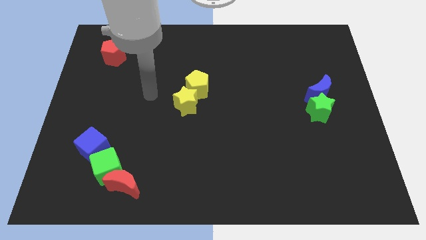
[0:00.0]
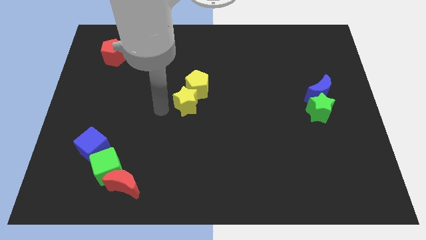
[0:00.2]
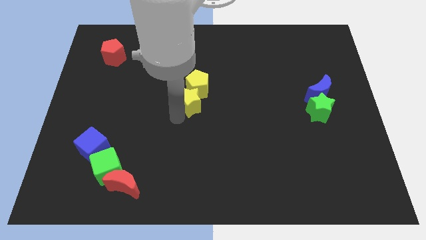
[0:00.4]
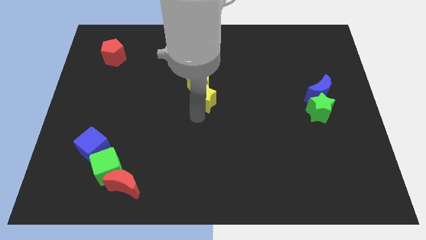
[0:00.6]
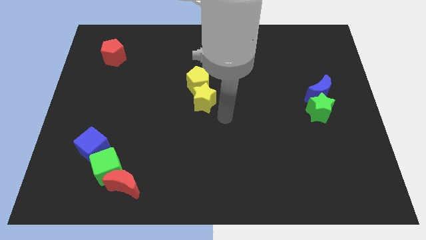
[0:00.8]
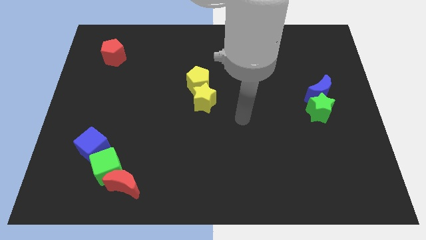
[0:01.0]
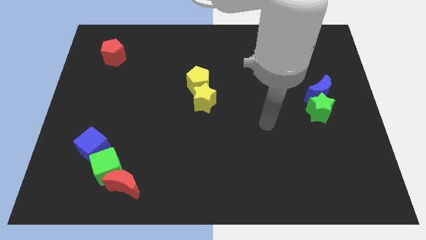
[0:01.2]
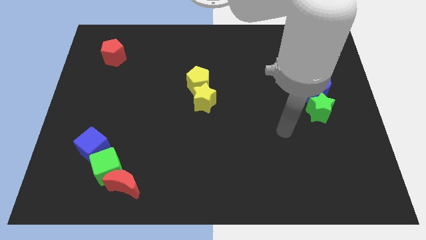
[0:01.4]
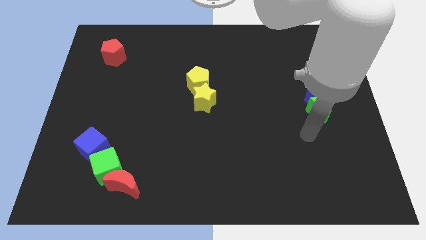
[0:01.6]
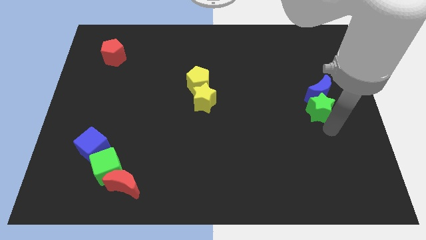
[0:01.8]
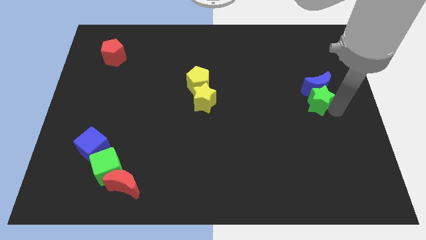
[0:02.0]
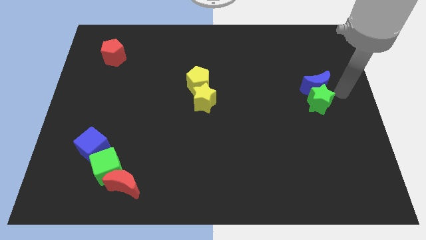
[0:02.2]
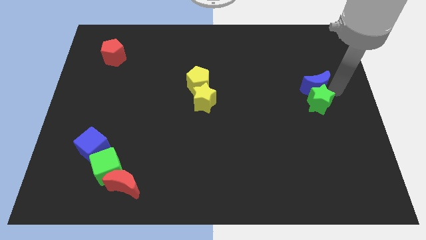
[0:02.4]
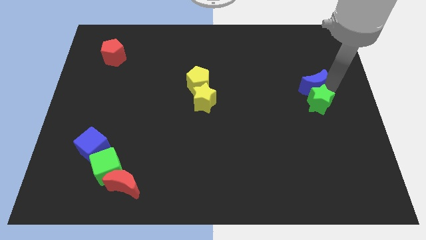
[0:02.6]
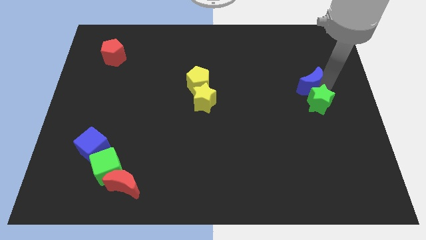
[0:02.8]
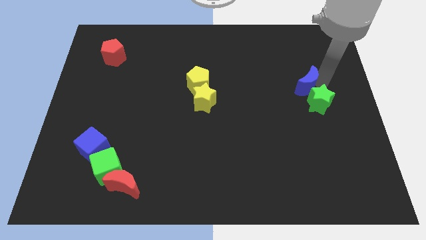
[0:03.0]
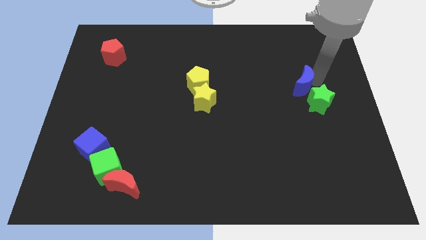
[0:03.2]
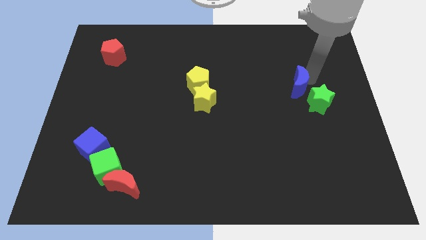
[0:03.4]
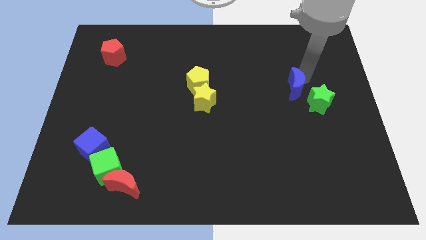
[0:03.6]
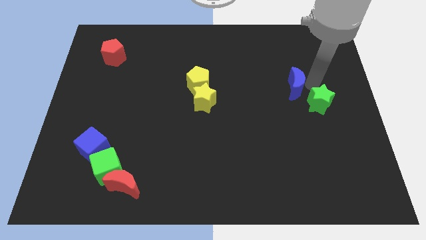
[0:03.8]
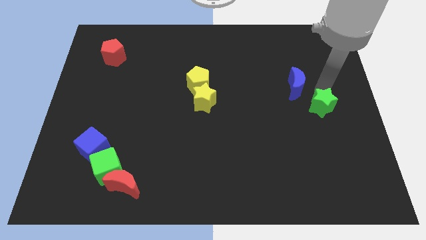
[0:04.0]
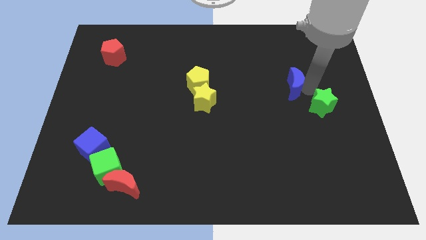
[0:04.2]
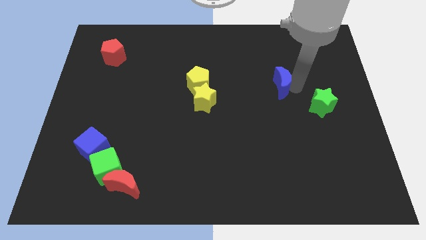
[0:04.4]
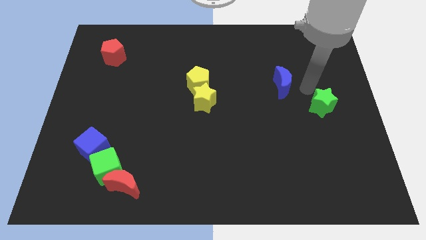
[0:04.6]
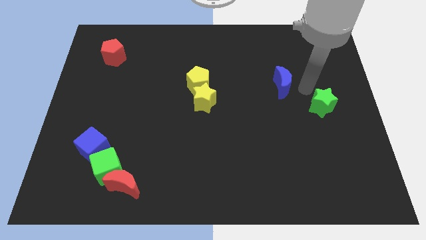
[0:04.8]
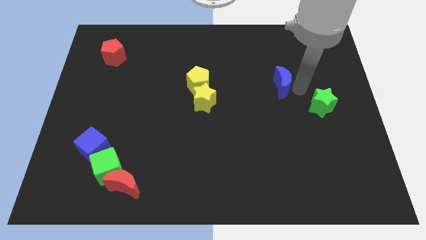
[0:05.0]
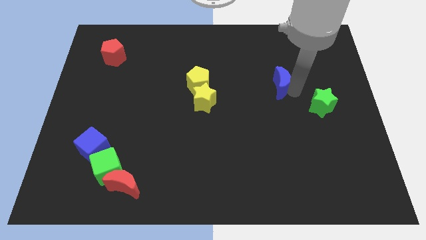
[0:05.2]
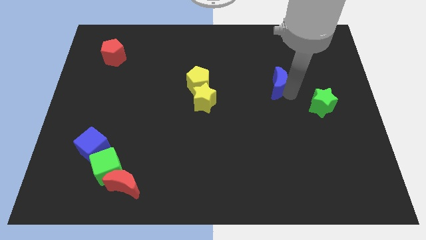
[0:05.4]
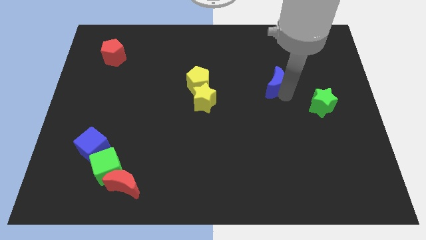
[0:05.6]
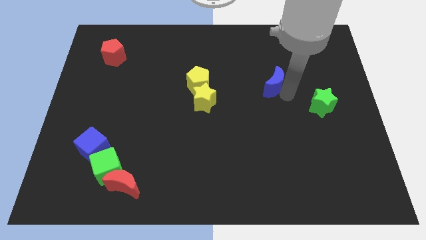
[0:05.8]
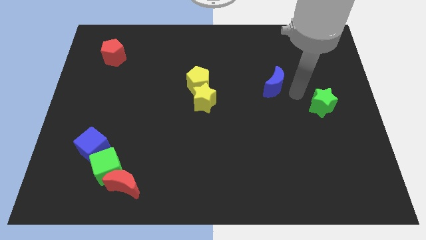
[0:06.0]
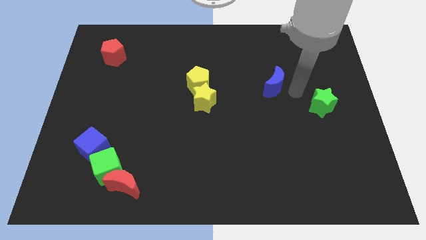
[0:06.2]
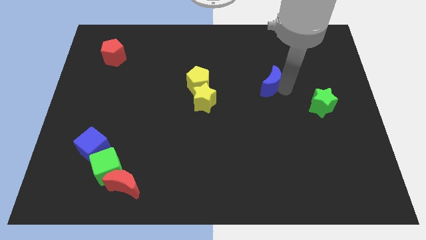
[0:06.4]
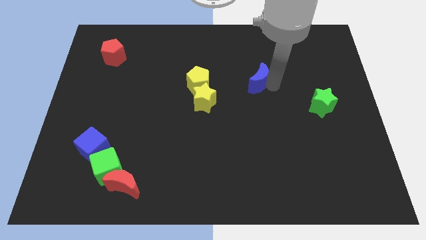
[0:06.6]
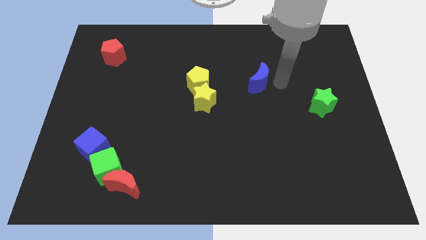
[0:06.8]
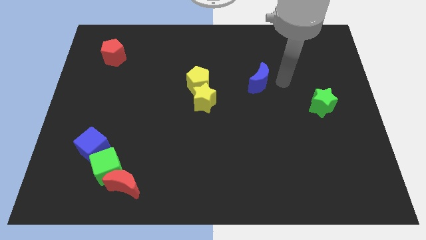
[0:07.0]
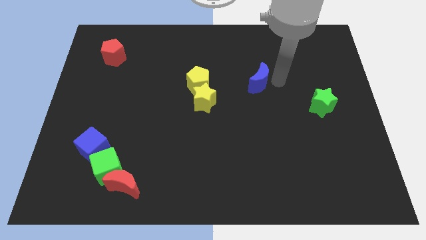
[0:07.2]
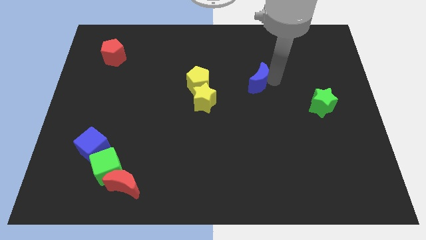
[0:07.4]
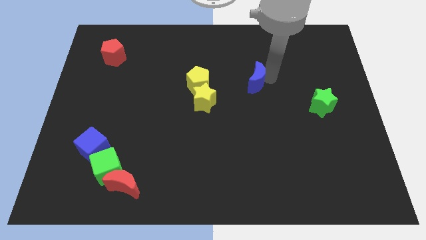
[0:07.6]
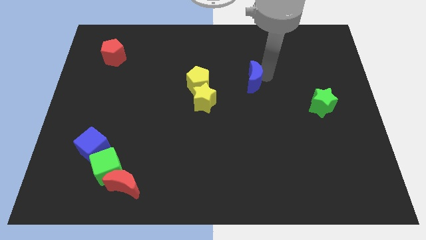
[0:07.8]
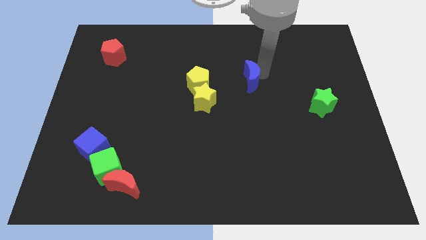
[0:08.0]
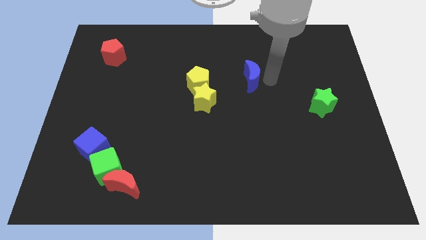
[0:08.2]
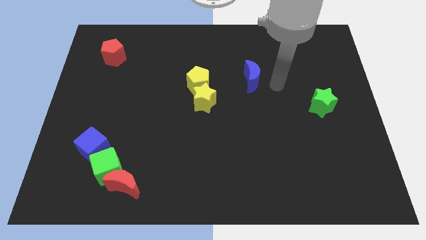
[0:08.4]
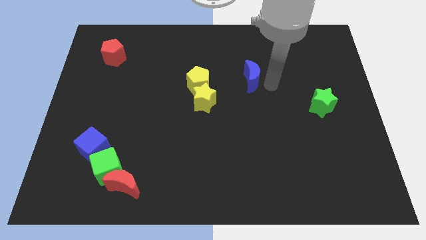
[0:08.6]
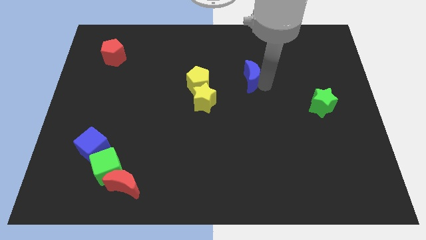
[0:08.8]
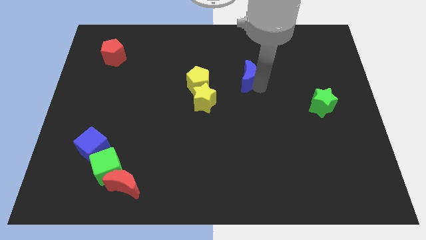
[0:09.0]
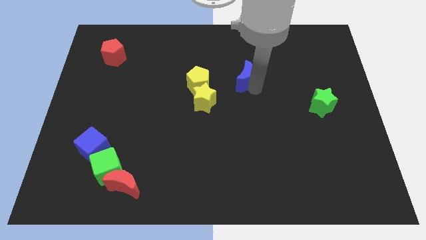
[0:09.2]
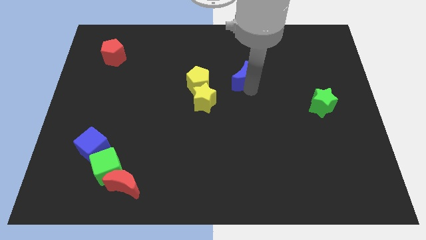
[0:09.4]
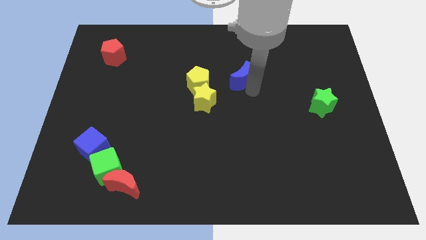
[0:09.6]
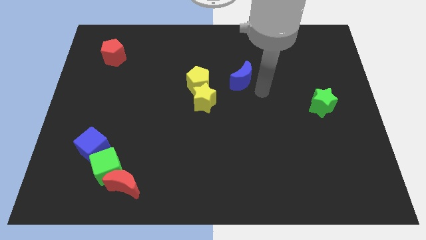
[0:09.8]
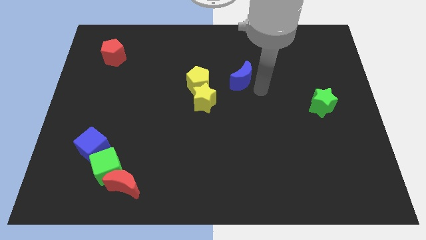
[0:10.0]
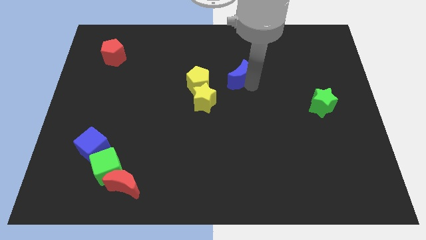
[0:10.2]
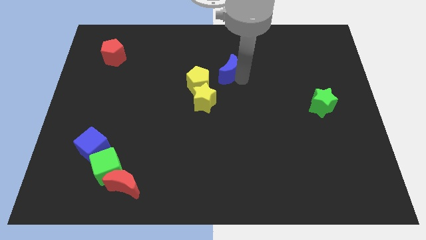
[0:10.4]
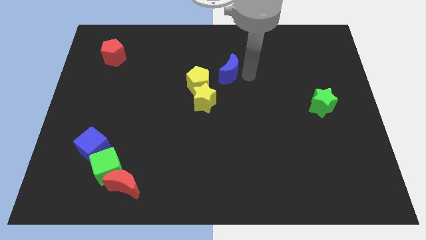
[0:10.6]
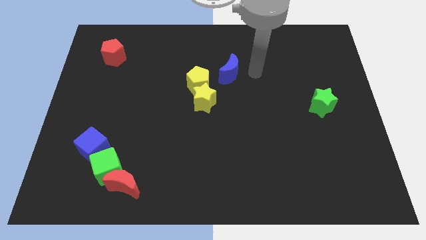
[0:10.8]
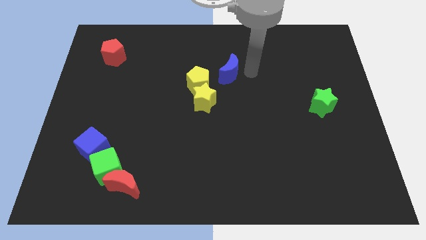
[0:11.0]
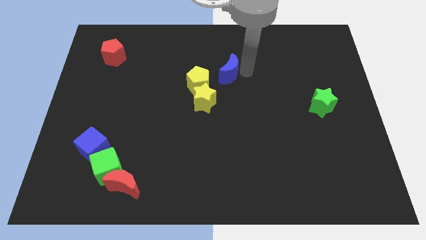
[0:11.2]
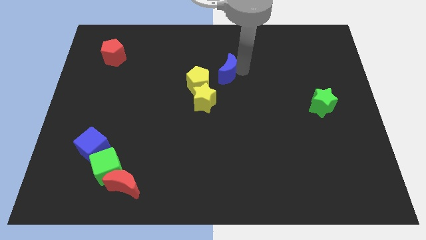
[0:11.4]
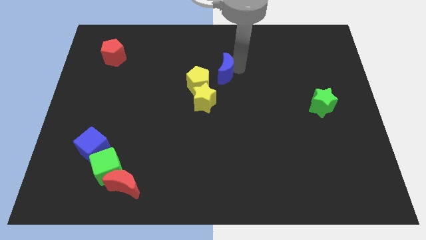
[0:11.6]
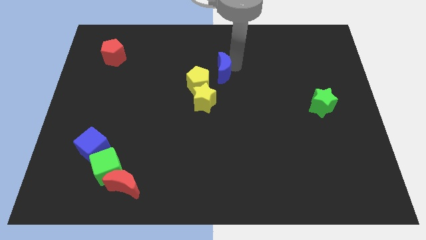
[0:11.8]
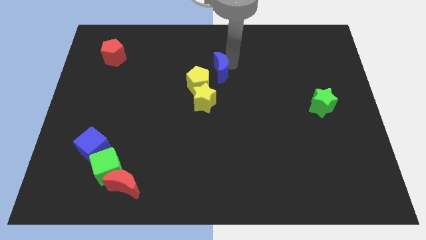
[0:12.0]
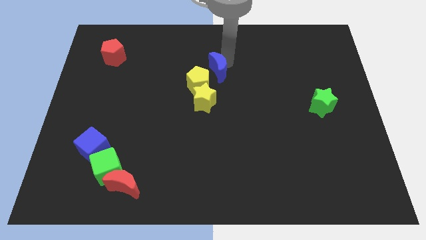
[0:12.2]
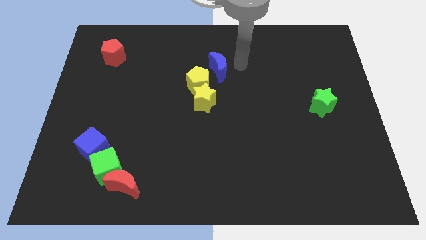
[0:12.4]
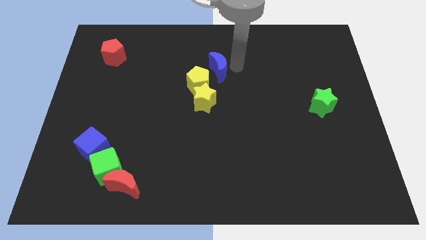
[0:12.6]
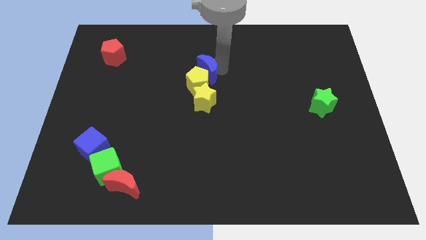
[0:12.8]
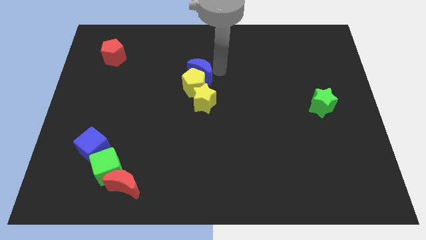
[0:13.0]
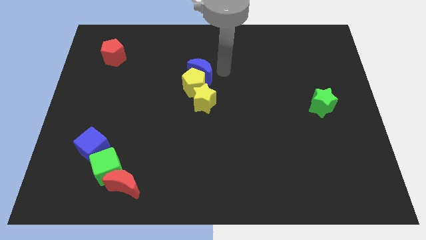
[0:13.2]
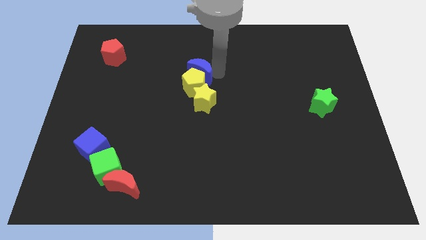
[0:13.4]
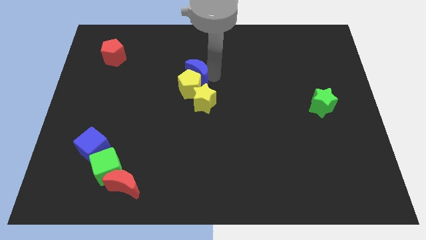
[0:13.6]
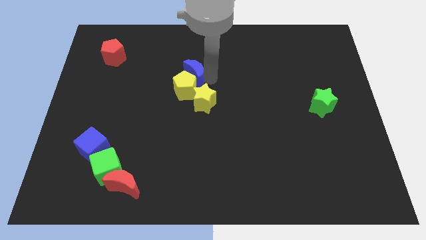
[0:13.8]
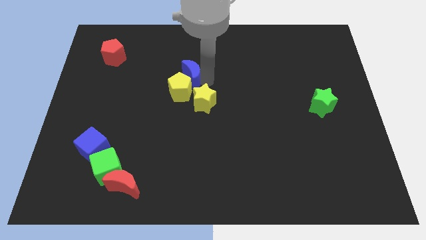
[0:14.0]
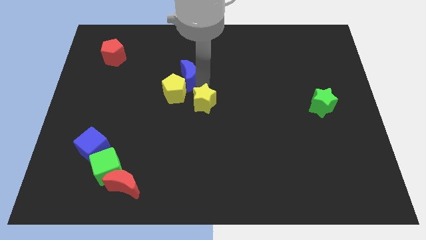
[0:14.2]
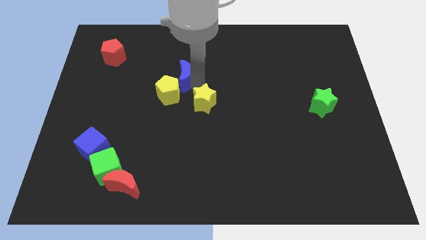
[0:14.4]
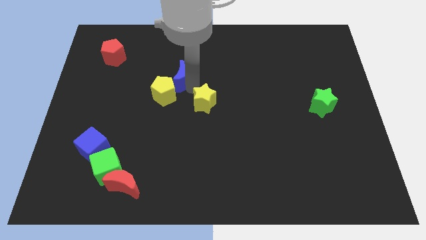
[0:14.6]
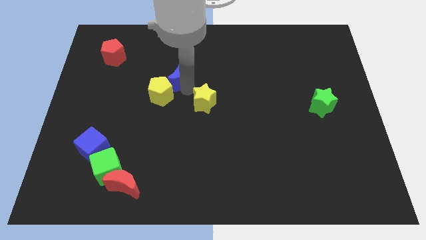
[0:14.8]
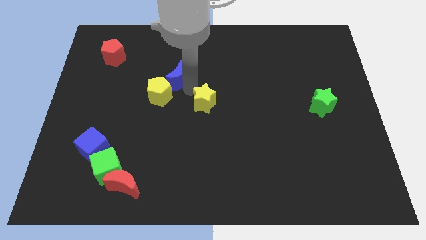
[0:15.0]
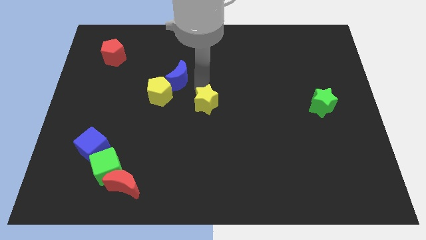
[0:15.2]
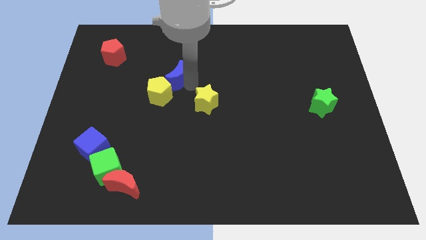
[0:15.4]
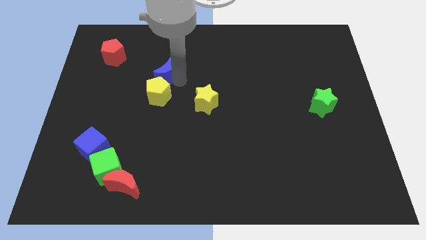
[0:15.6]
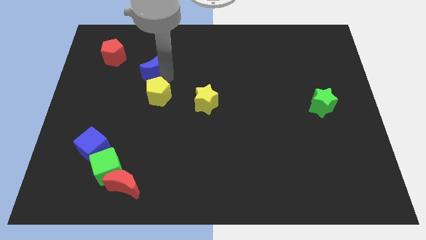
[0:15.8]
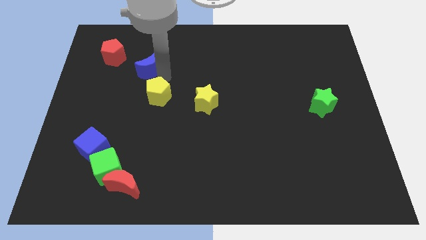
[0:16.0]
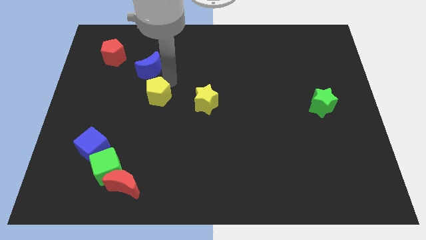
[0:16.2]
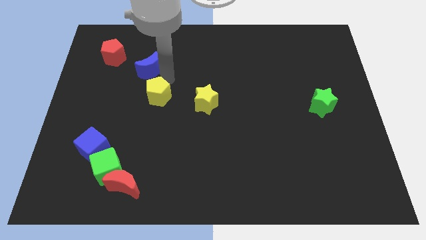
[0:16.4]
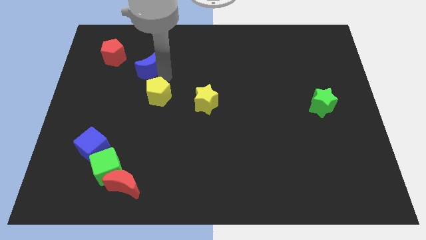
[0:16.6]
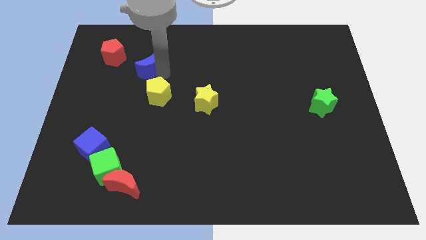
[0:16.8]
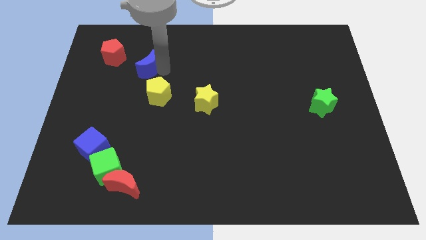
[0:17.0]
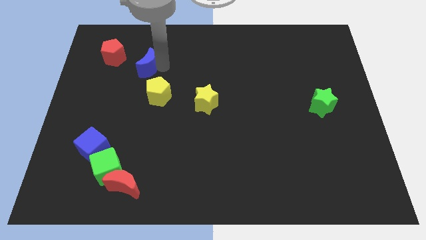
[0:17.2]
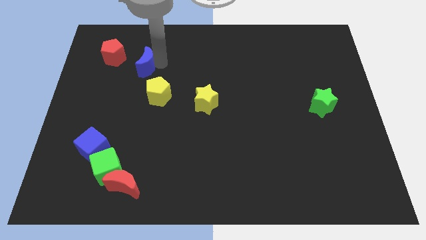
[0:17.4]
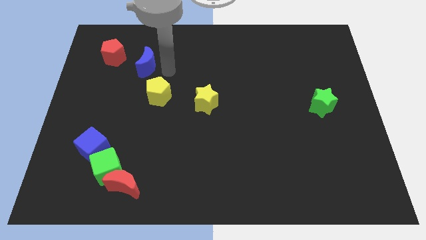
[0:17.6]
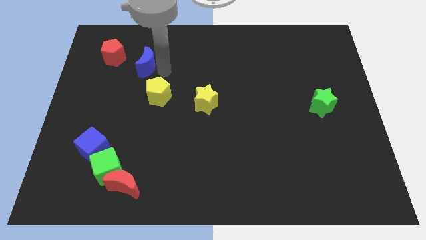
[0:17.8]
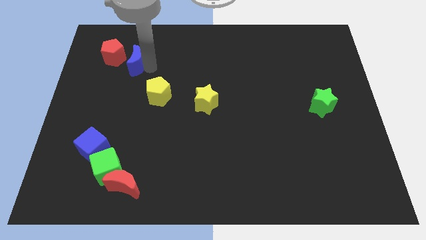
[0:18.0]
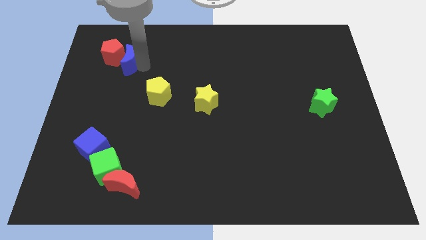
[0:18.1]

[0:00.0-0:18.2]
push the blue moon to the red pentagon
